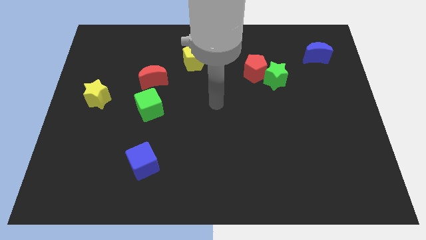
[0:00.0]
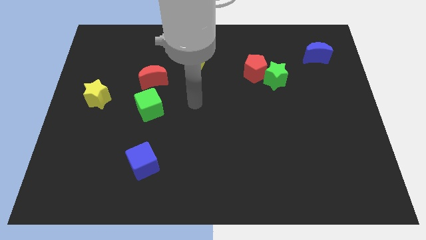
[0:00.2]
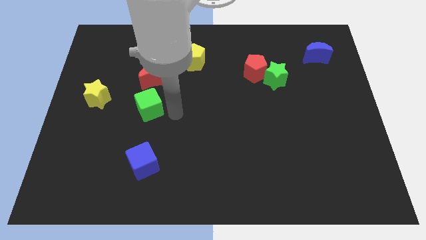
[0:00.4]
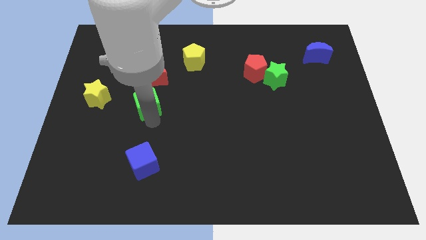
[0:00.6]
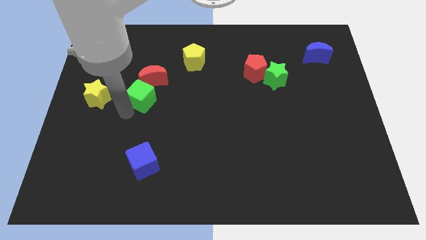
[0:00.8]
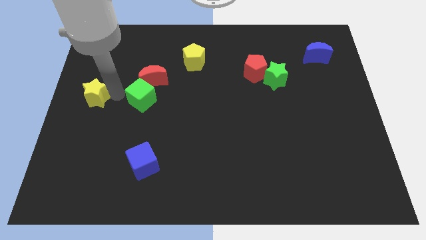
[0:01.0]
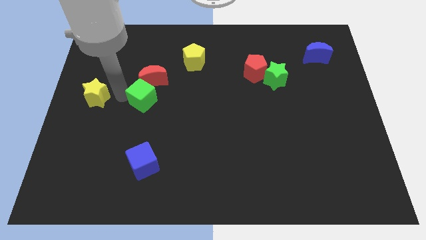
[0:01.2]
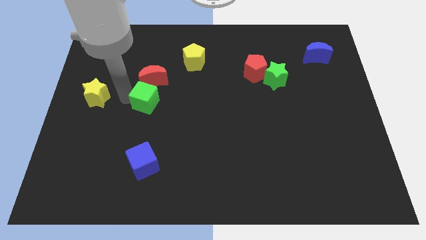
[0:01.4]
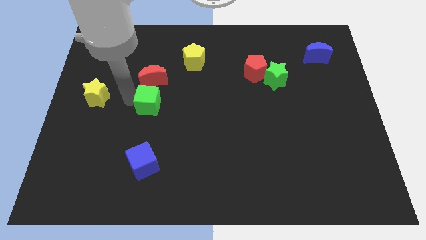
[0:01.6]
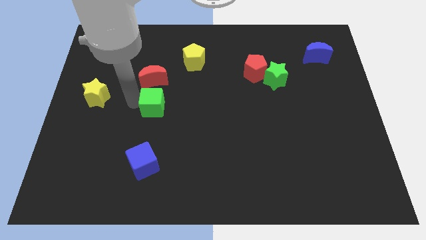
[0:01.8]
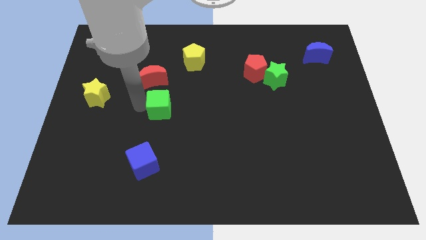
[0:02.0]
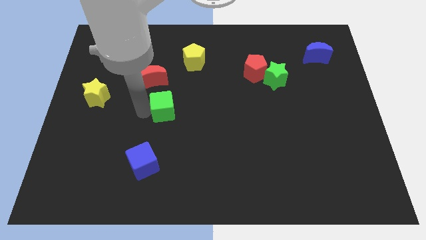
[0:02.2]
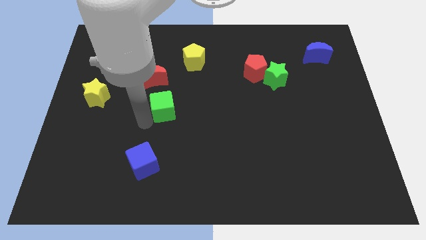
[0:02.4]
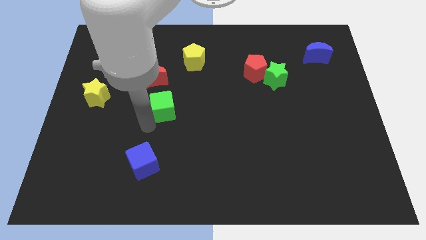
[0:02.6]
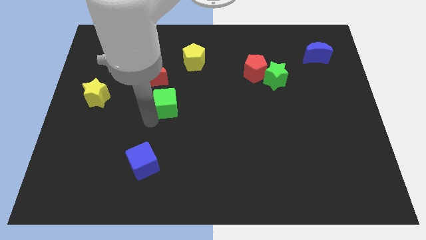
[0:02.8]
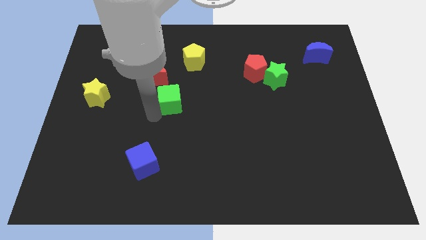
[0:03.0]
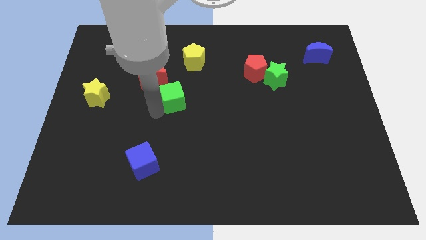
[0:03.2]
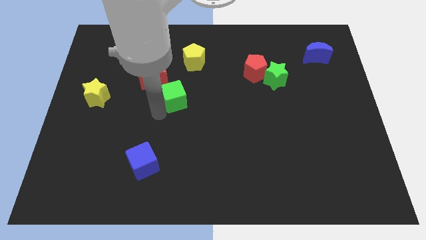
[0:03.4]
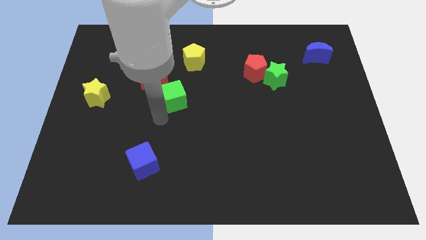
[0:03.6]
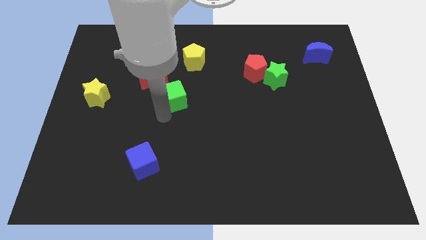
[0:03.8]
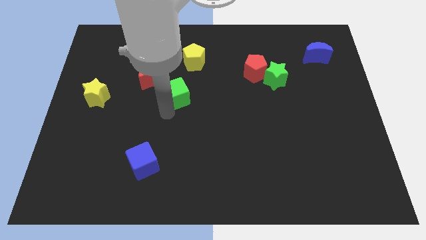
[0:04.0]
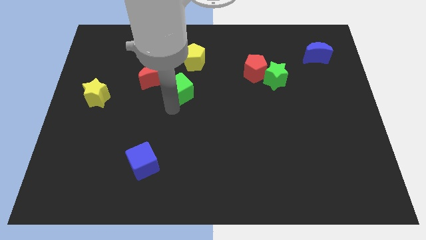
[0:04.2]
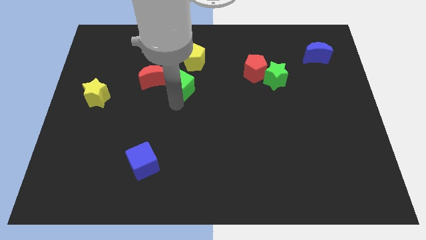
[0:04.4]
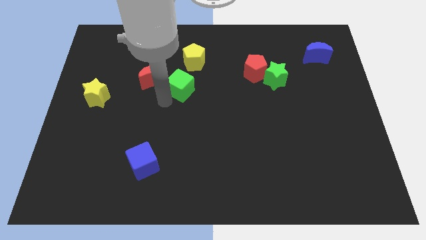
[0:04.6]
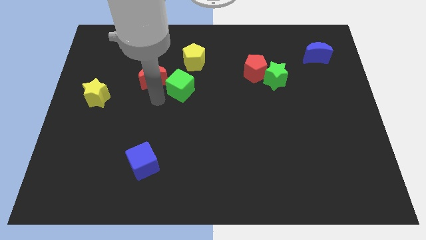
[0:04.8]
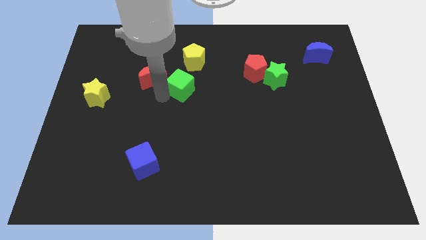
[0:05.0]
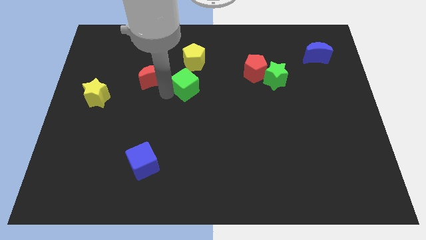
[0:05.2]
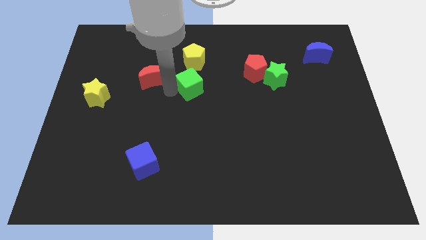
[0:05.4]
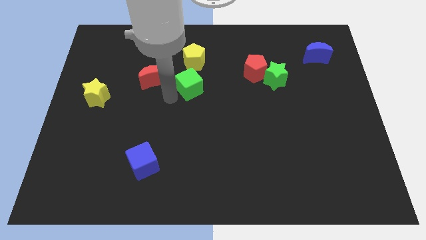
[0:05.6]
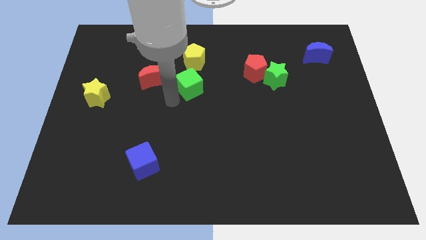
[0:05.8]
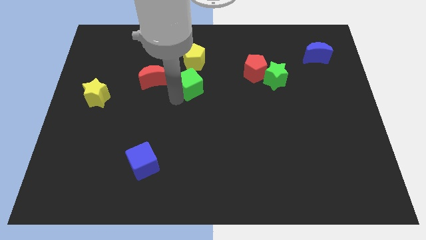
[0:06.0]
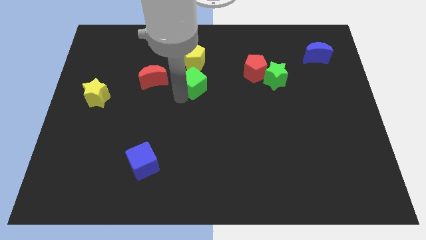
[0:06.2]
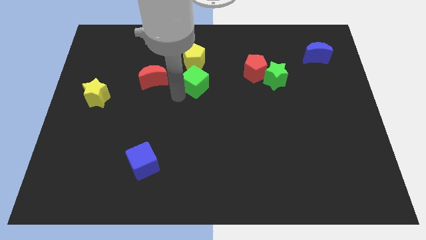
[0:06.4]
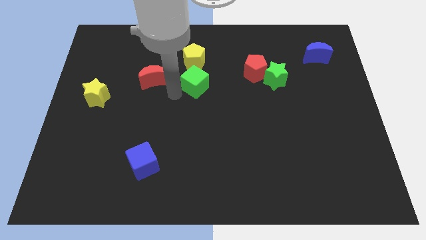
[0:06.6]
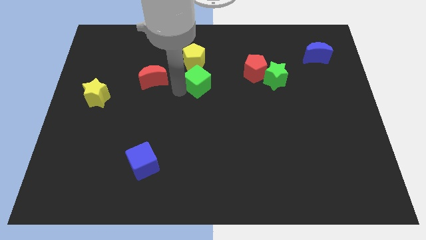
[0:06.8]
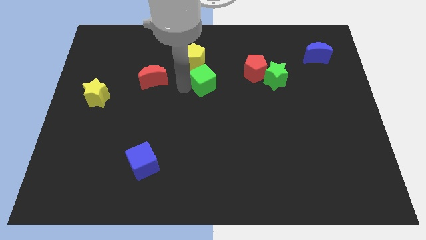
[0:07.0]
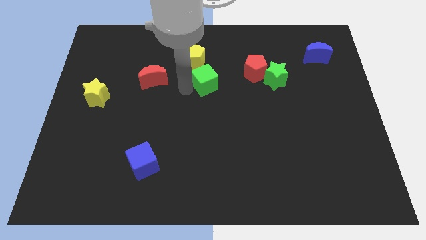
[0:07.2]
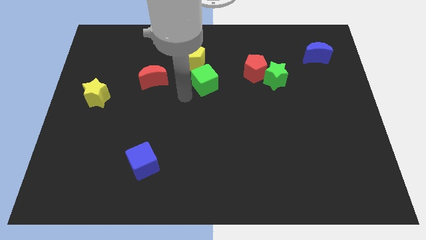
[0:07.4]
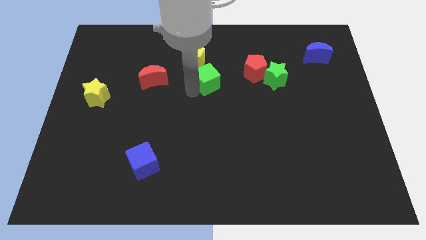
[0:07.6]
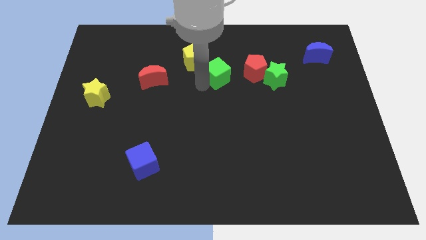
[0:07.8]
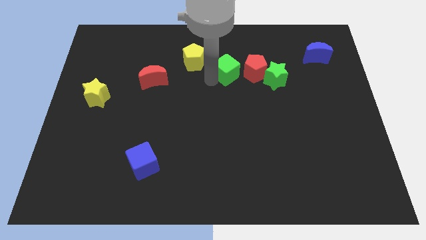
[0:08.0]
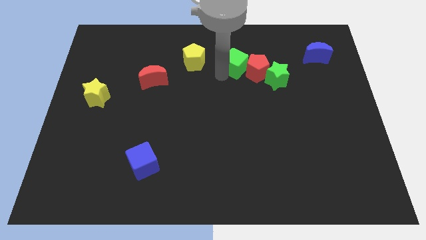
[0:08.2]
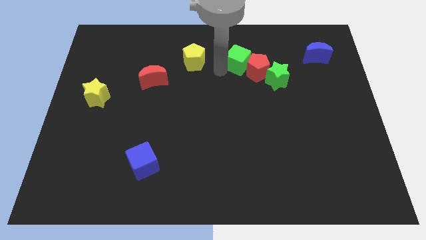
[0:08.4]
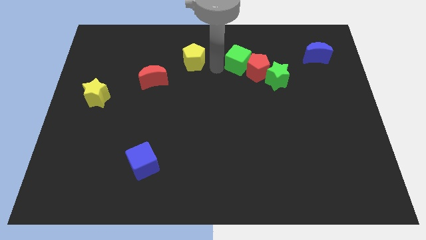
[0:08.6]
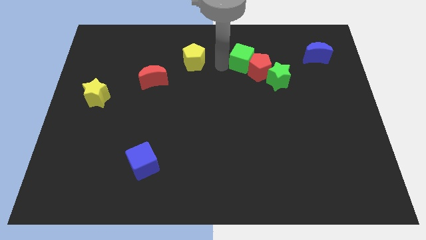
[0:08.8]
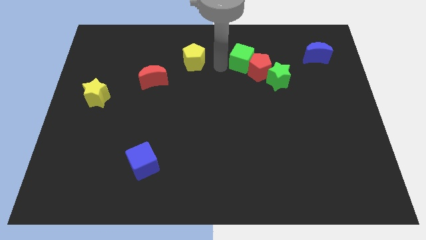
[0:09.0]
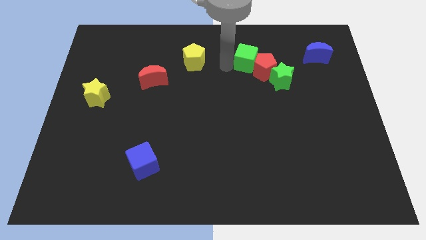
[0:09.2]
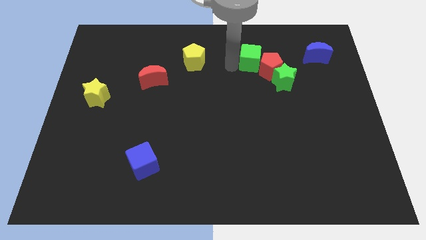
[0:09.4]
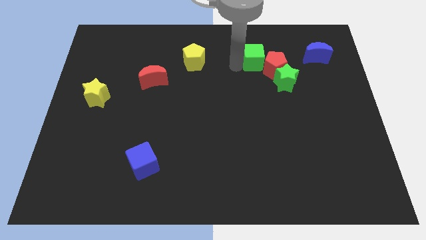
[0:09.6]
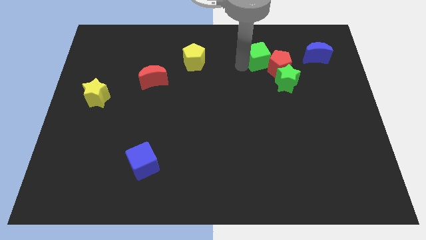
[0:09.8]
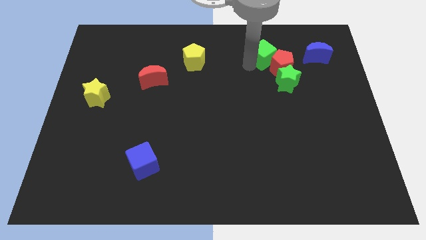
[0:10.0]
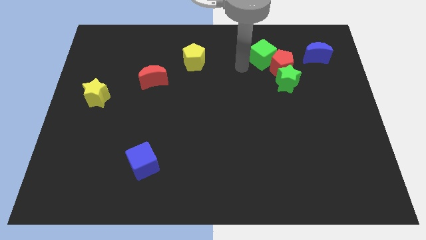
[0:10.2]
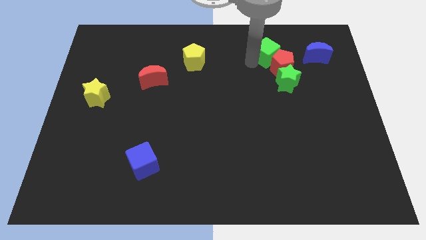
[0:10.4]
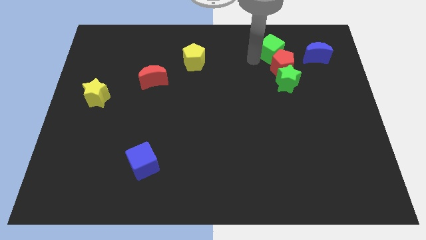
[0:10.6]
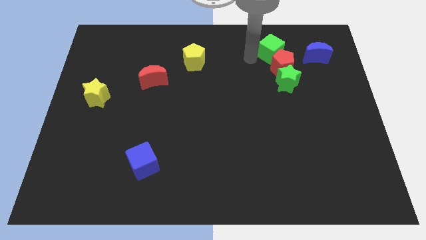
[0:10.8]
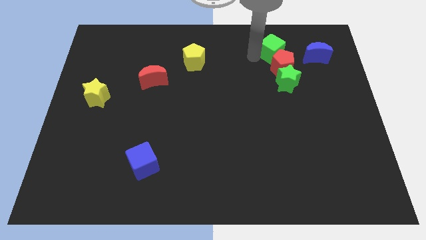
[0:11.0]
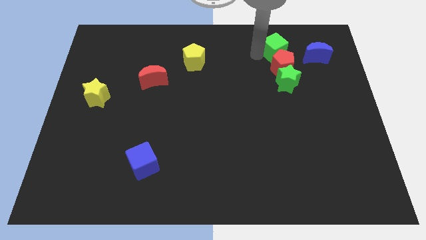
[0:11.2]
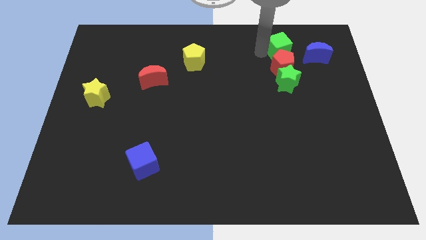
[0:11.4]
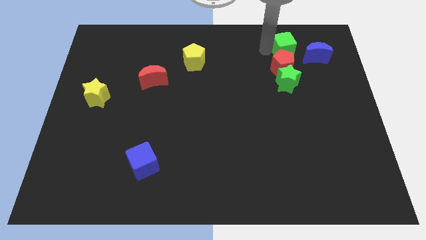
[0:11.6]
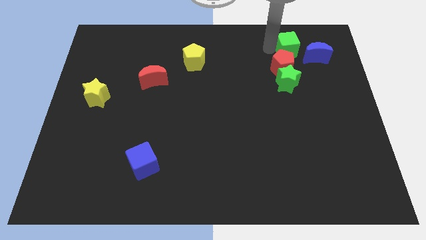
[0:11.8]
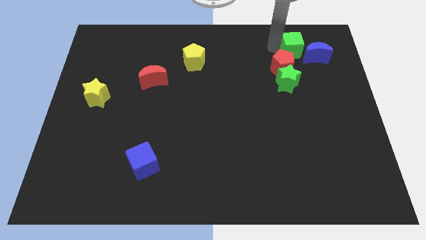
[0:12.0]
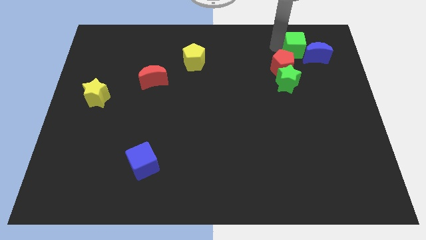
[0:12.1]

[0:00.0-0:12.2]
move the green cube next to the blue moon

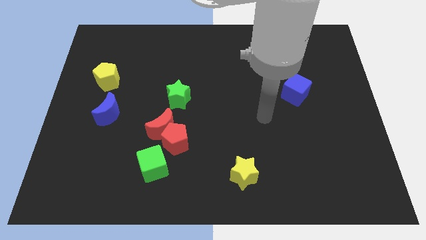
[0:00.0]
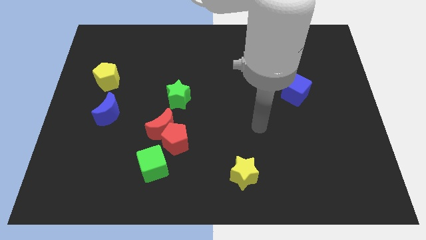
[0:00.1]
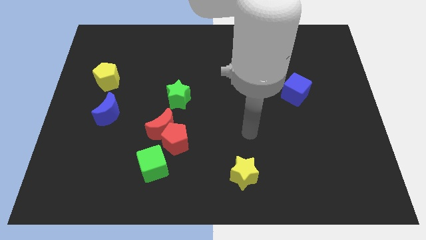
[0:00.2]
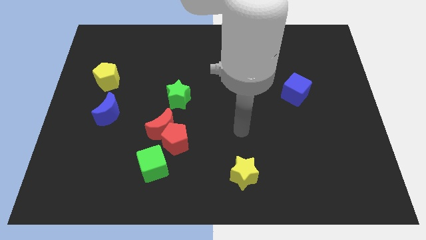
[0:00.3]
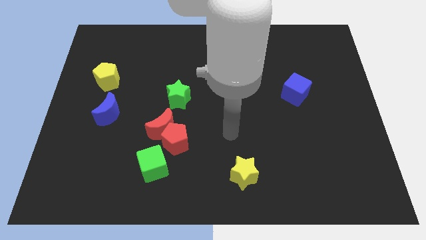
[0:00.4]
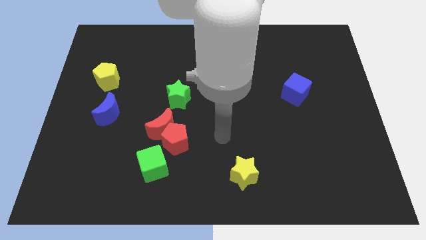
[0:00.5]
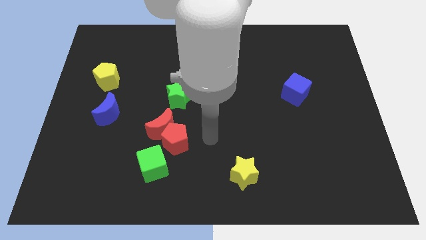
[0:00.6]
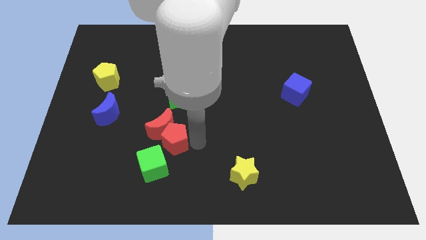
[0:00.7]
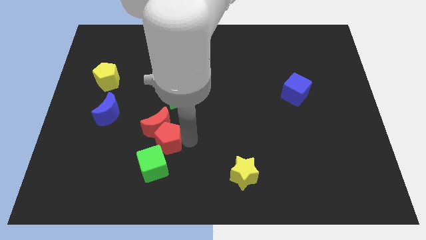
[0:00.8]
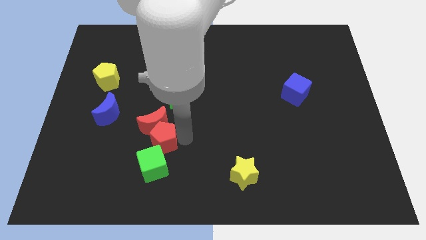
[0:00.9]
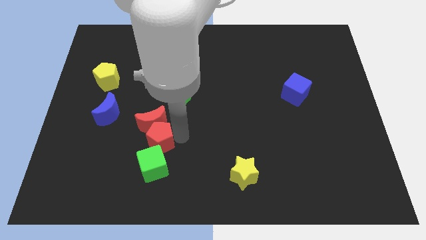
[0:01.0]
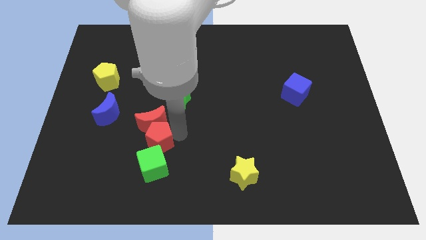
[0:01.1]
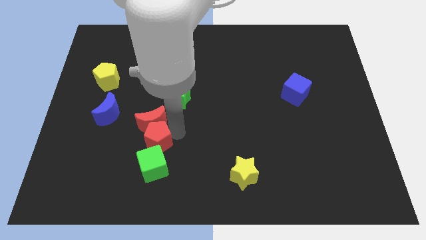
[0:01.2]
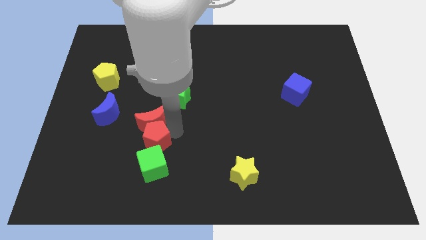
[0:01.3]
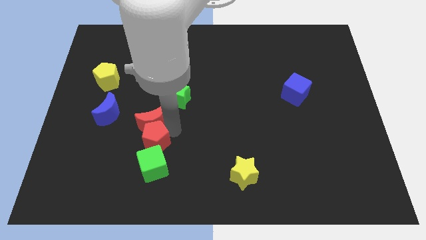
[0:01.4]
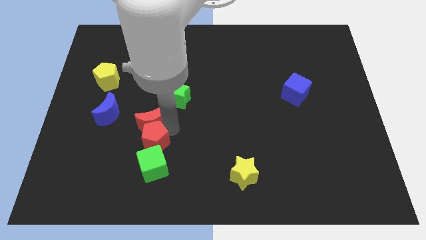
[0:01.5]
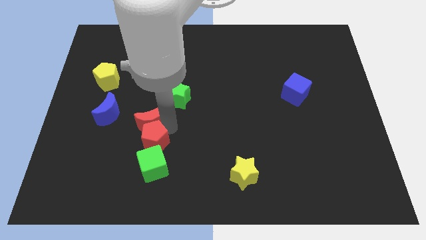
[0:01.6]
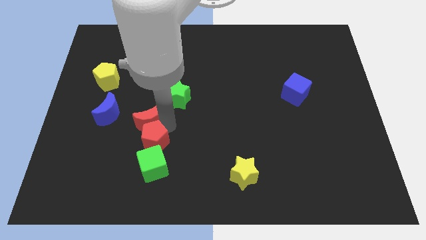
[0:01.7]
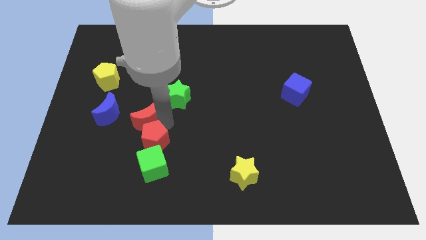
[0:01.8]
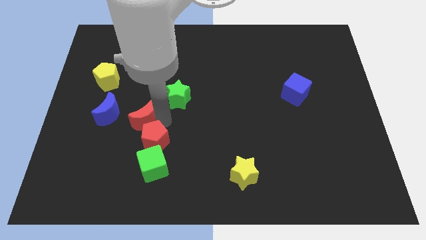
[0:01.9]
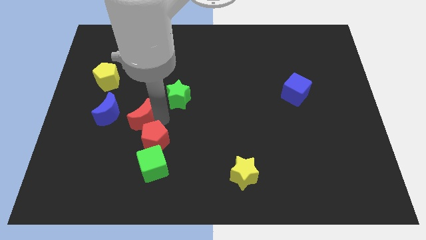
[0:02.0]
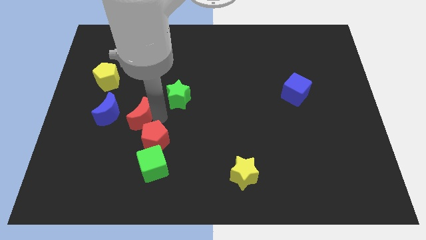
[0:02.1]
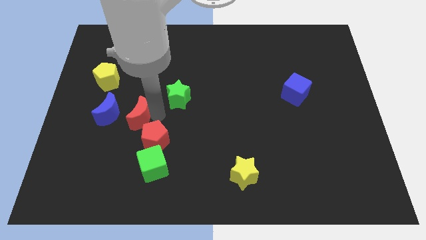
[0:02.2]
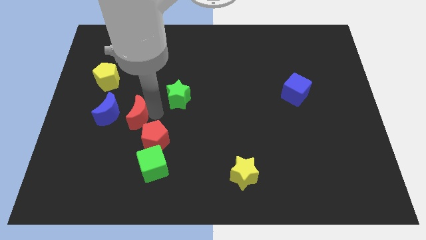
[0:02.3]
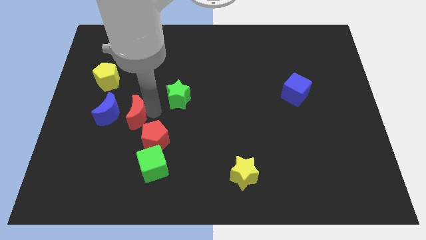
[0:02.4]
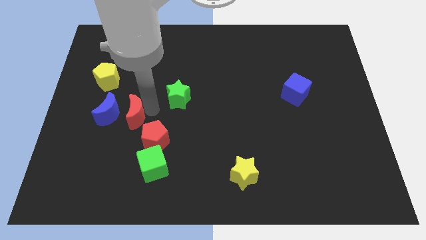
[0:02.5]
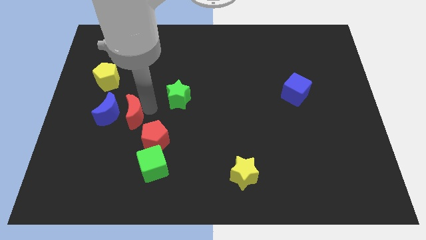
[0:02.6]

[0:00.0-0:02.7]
move the red moon next to the blue moon
